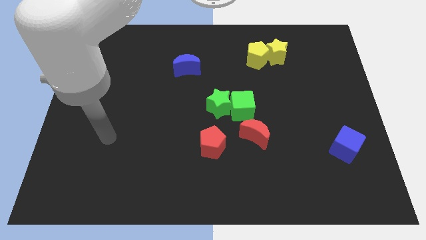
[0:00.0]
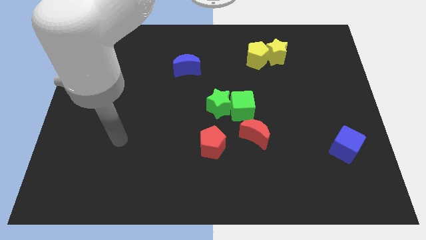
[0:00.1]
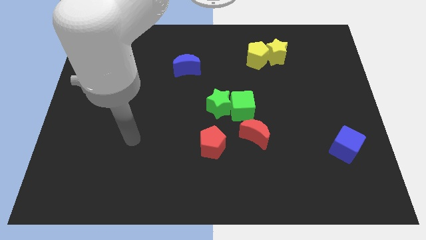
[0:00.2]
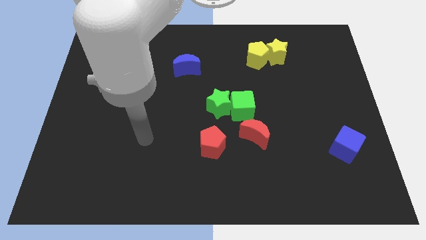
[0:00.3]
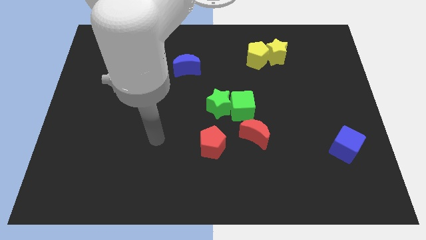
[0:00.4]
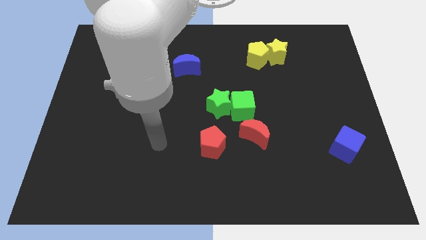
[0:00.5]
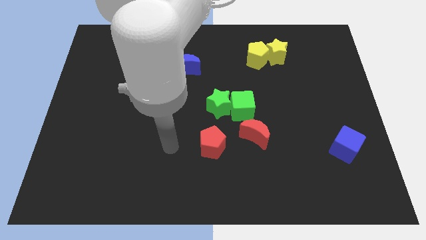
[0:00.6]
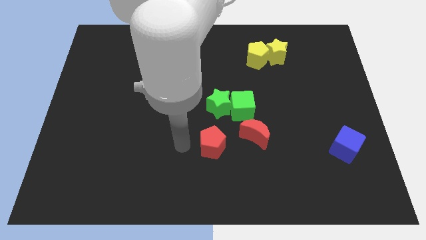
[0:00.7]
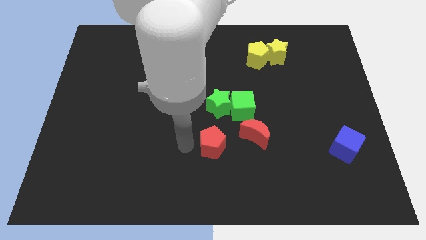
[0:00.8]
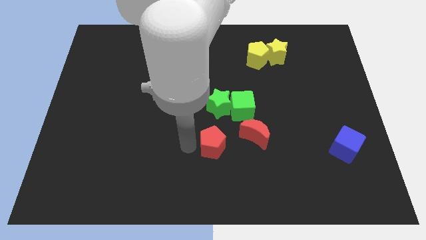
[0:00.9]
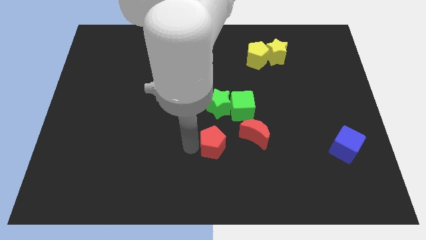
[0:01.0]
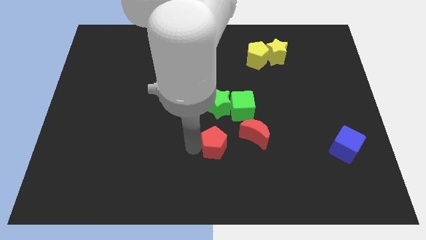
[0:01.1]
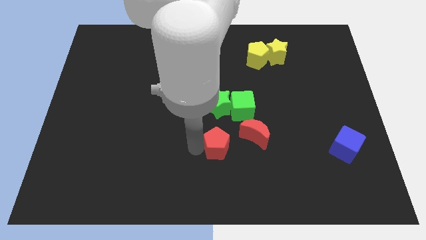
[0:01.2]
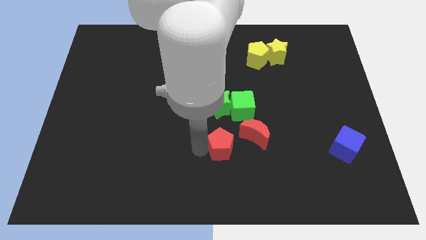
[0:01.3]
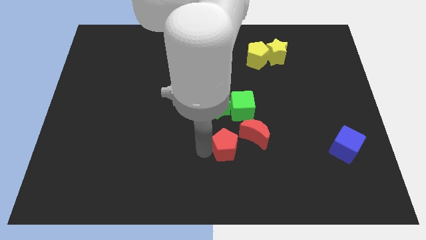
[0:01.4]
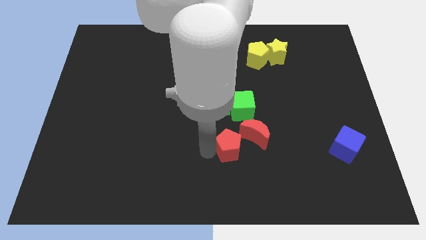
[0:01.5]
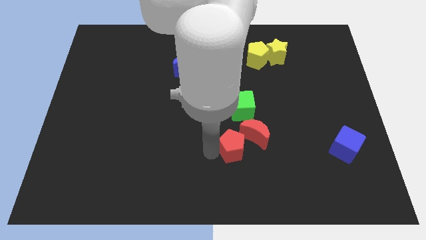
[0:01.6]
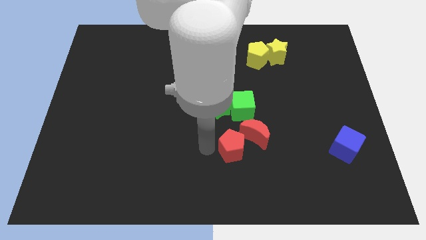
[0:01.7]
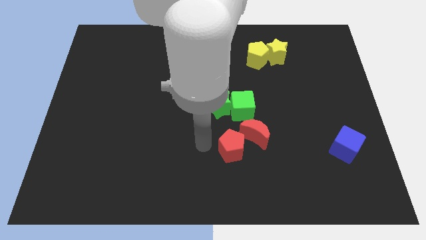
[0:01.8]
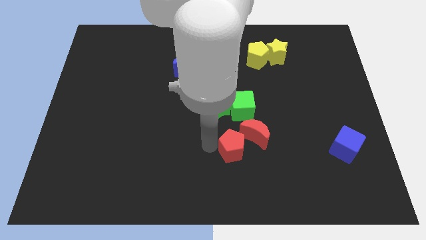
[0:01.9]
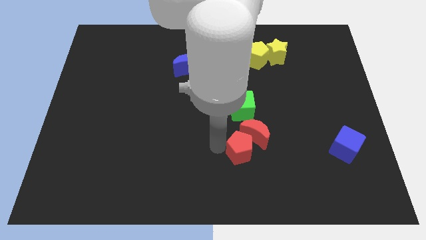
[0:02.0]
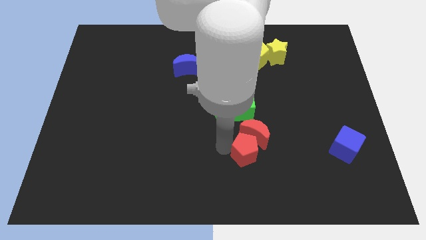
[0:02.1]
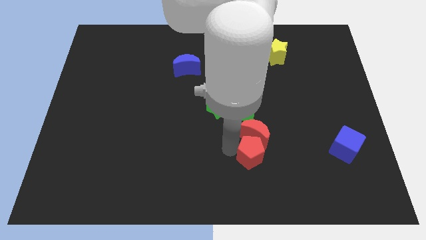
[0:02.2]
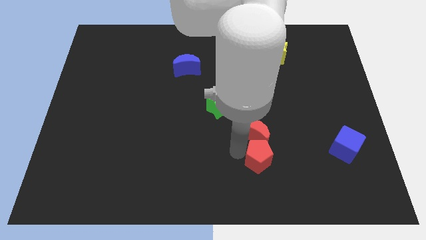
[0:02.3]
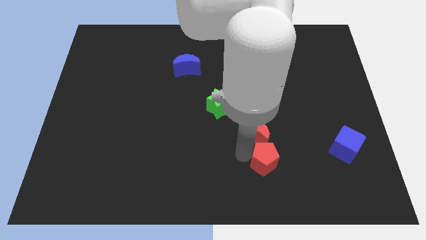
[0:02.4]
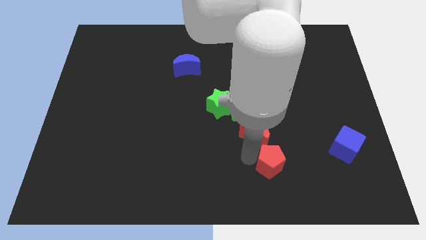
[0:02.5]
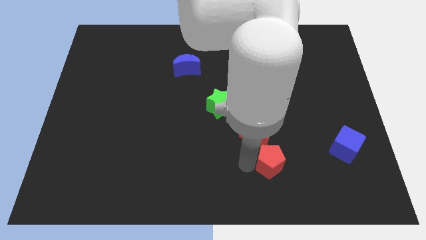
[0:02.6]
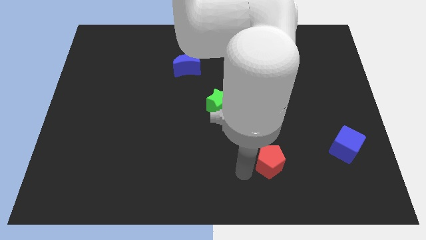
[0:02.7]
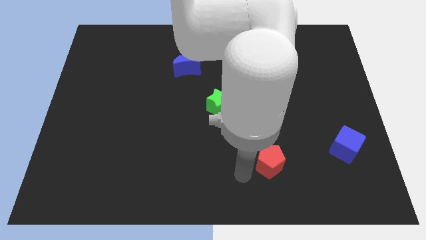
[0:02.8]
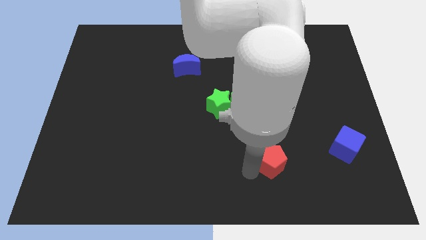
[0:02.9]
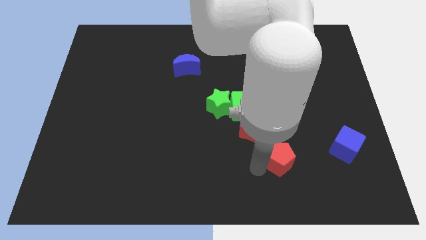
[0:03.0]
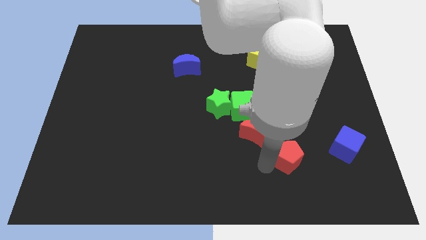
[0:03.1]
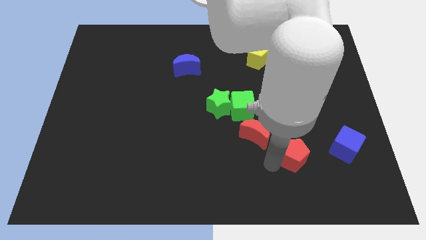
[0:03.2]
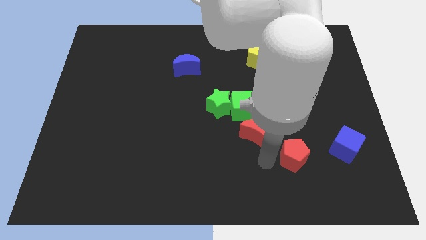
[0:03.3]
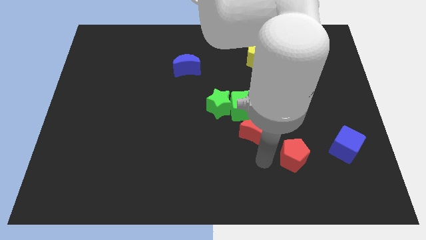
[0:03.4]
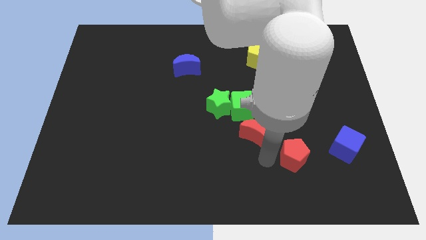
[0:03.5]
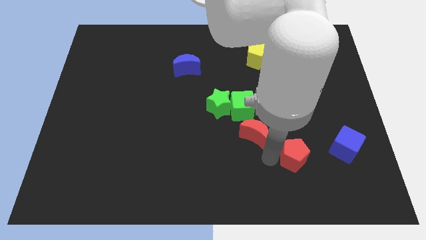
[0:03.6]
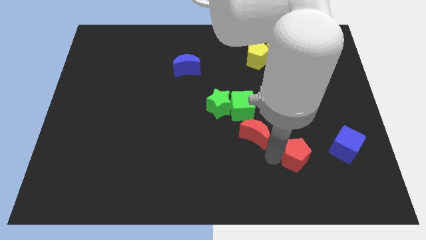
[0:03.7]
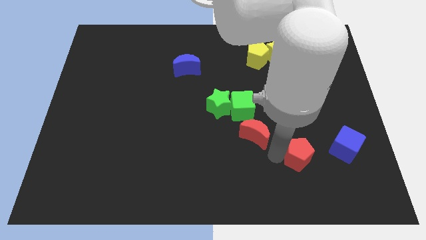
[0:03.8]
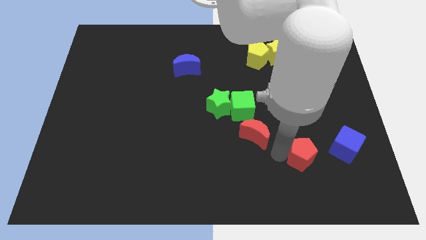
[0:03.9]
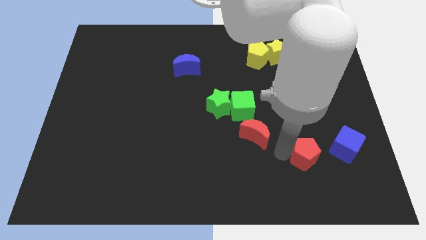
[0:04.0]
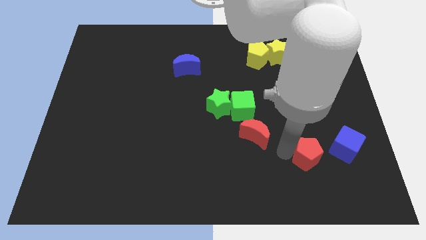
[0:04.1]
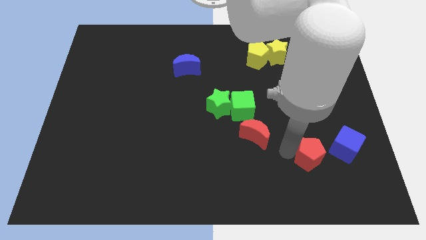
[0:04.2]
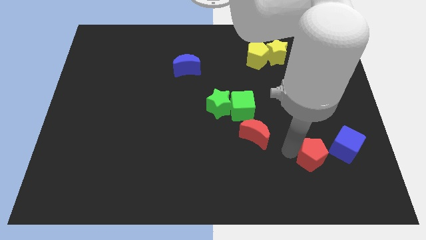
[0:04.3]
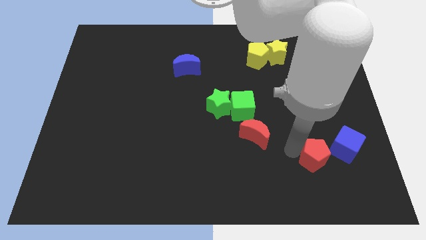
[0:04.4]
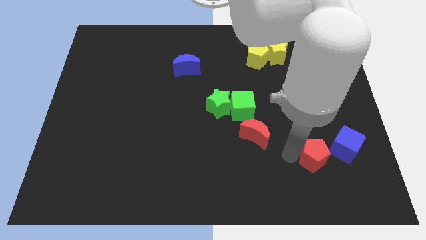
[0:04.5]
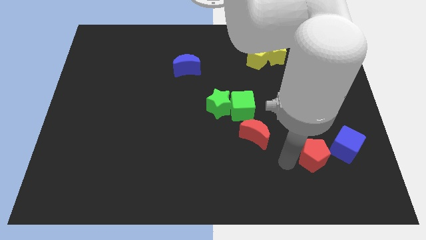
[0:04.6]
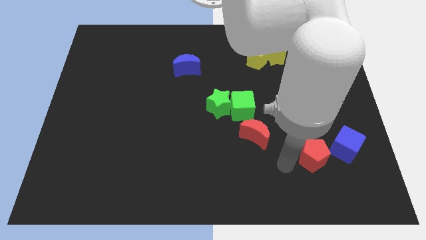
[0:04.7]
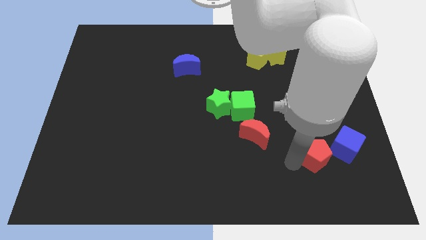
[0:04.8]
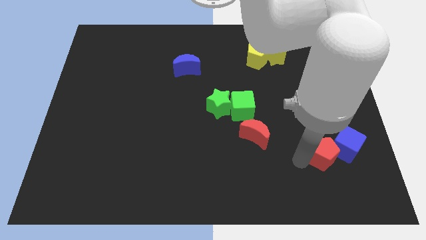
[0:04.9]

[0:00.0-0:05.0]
move the red pentagon close to the blue cube

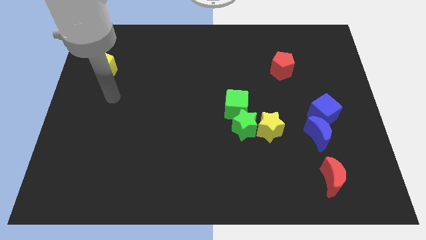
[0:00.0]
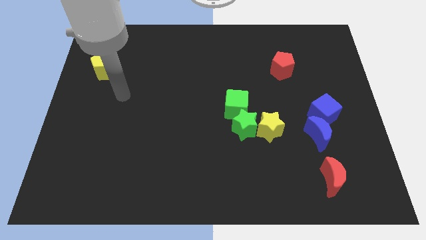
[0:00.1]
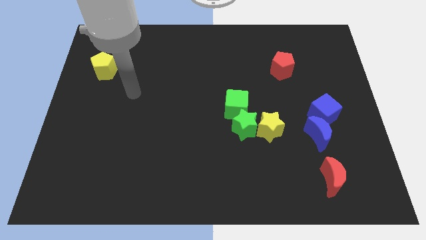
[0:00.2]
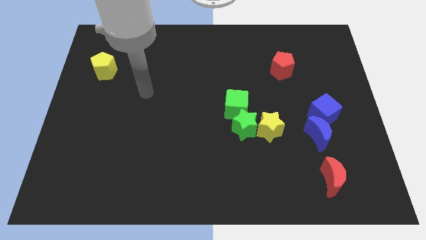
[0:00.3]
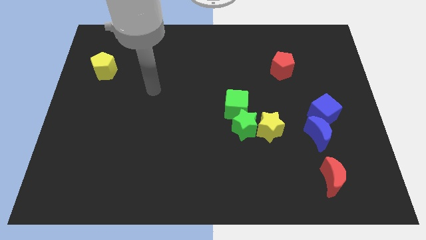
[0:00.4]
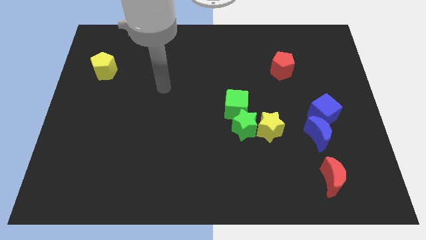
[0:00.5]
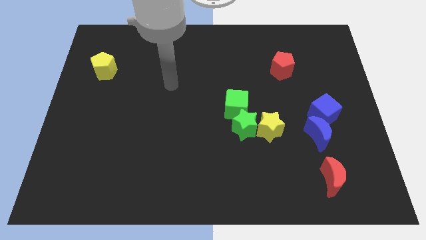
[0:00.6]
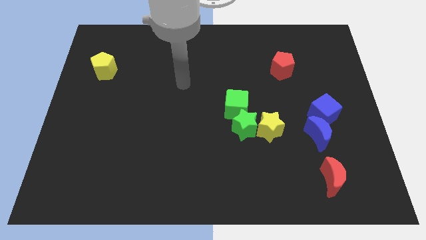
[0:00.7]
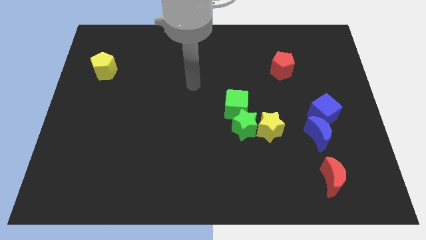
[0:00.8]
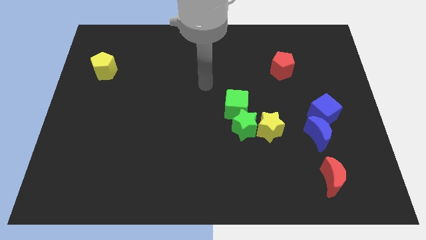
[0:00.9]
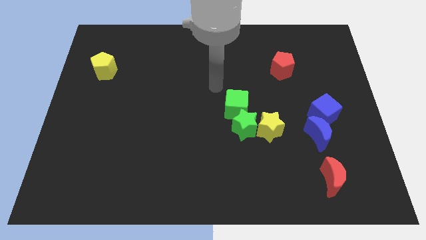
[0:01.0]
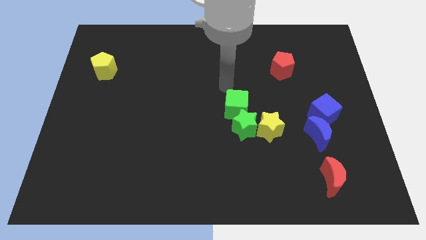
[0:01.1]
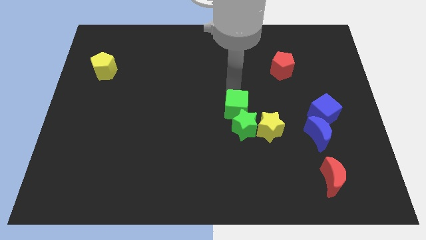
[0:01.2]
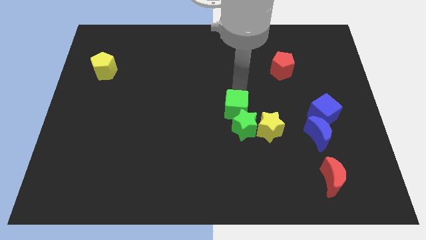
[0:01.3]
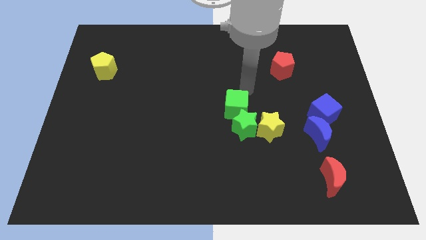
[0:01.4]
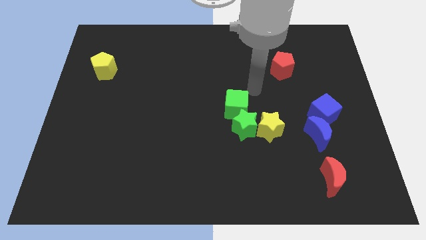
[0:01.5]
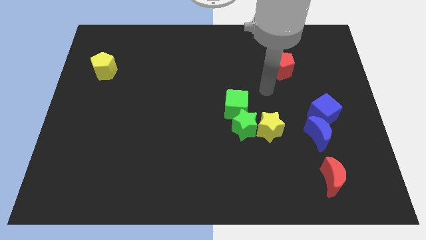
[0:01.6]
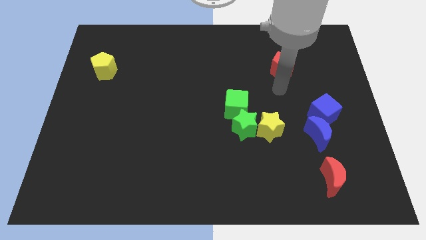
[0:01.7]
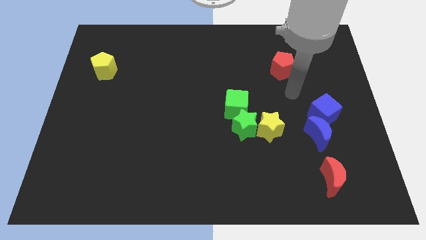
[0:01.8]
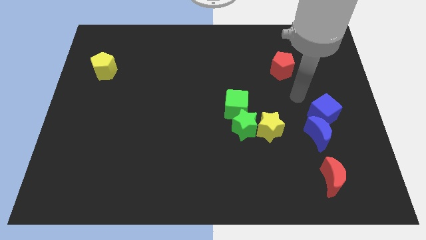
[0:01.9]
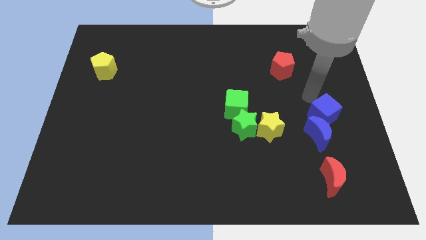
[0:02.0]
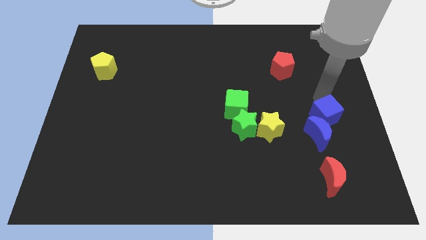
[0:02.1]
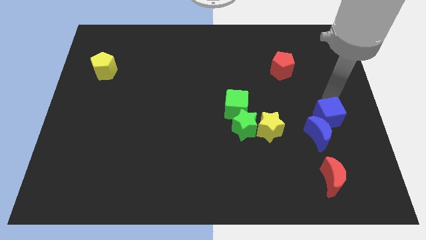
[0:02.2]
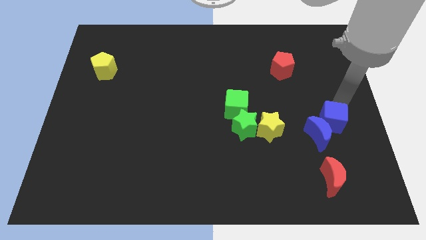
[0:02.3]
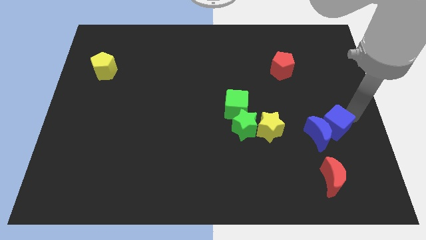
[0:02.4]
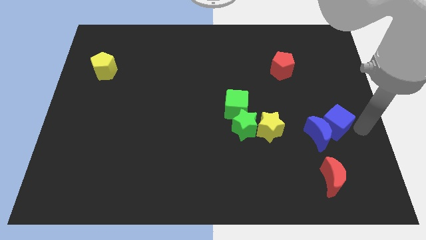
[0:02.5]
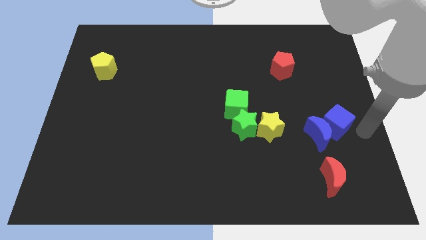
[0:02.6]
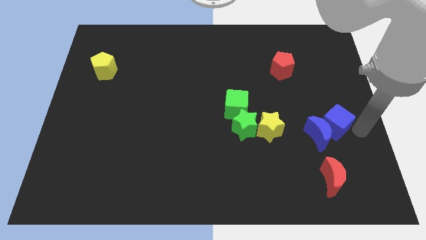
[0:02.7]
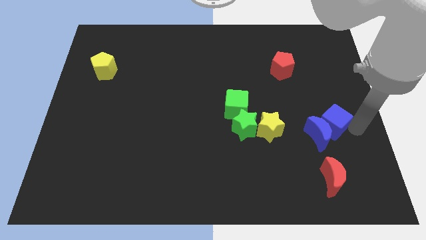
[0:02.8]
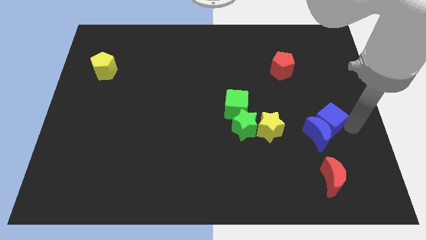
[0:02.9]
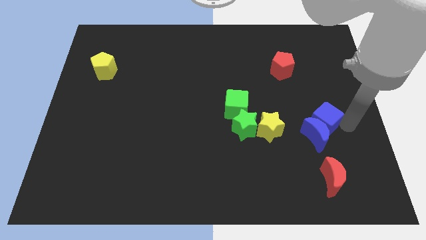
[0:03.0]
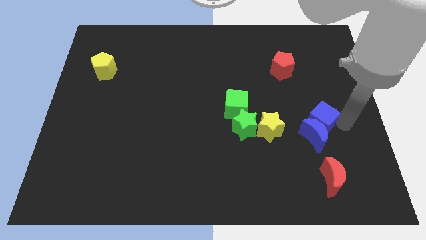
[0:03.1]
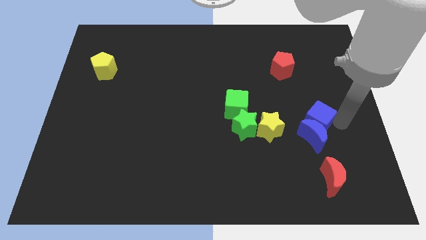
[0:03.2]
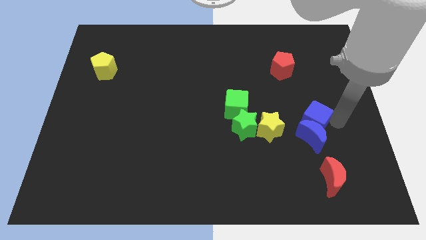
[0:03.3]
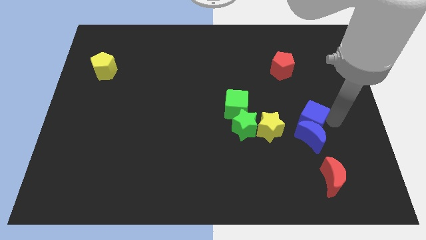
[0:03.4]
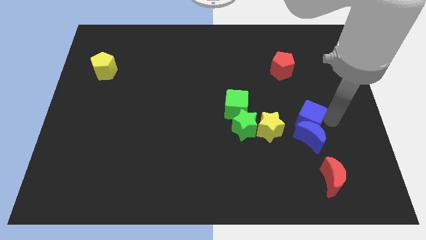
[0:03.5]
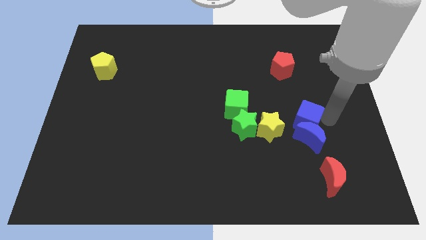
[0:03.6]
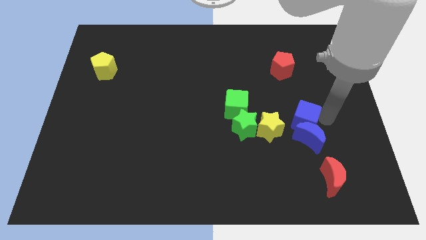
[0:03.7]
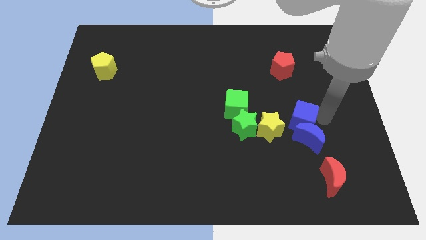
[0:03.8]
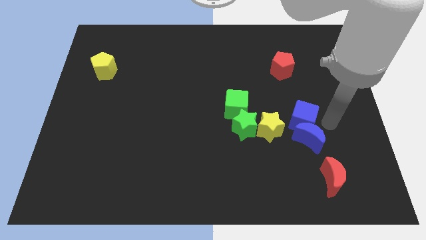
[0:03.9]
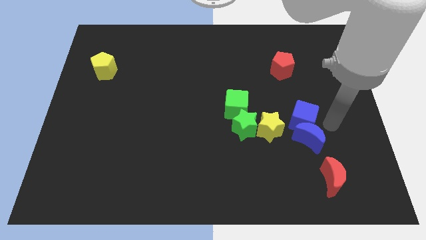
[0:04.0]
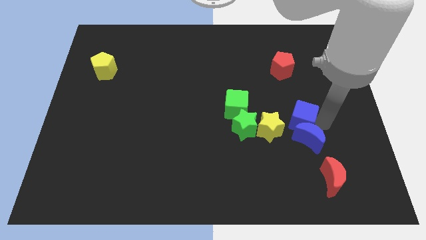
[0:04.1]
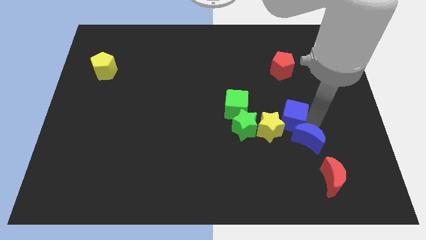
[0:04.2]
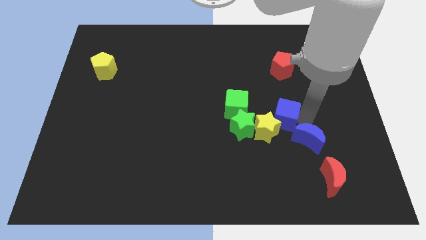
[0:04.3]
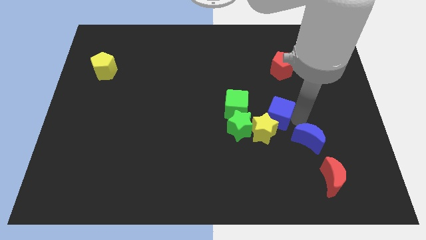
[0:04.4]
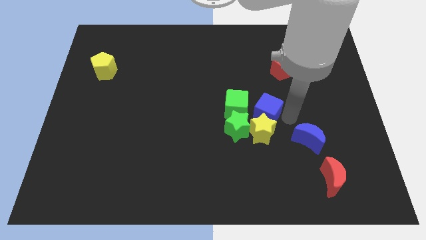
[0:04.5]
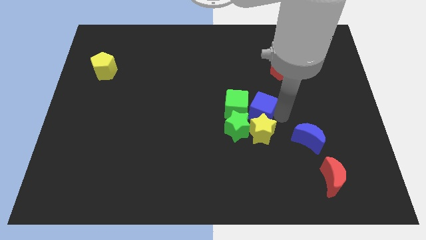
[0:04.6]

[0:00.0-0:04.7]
move the blue cube close to the green cube
